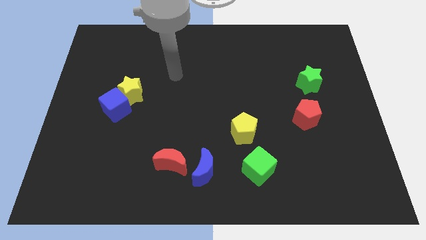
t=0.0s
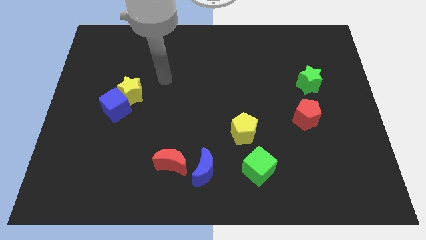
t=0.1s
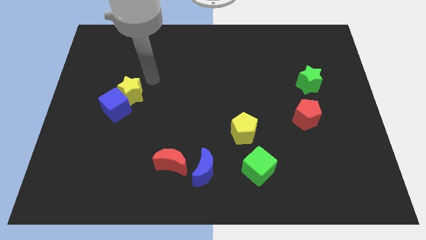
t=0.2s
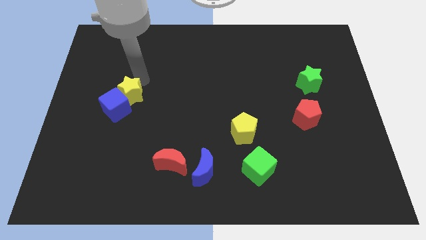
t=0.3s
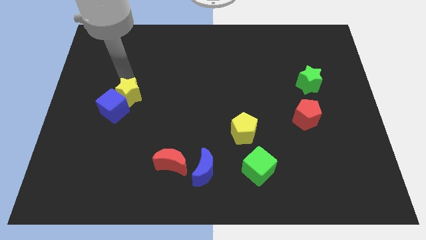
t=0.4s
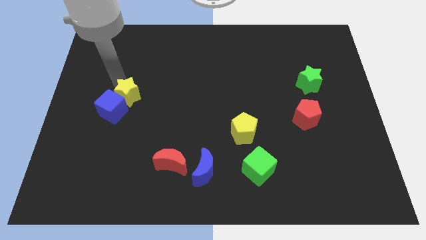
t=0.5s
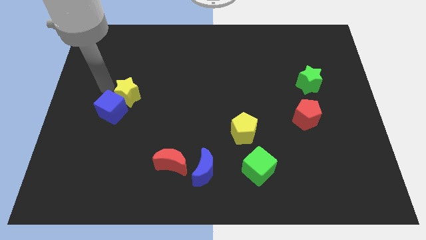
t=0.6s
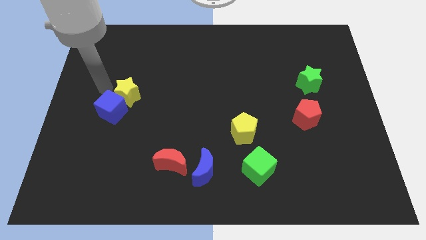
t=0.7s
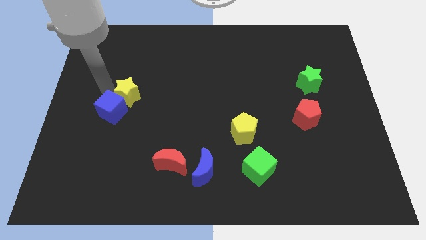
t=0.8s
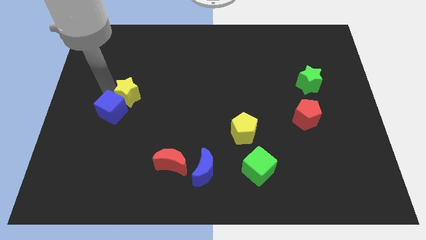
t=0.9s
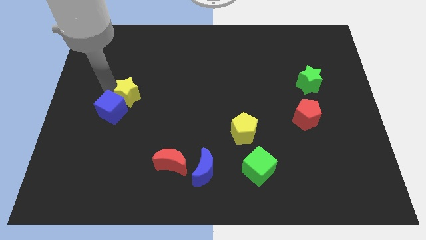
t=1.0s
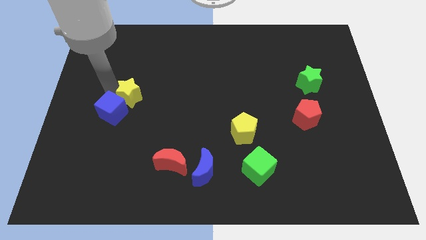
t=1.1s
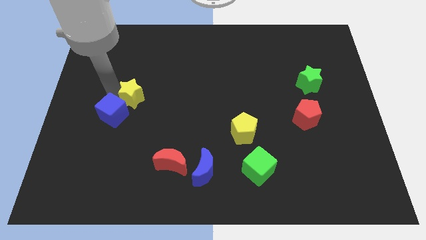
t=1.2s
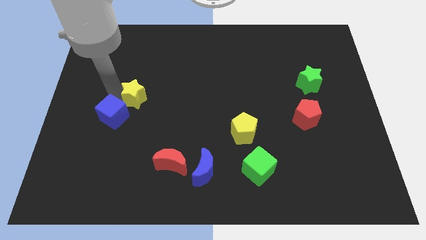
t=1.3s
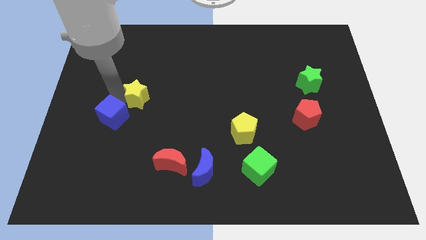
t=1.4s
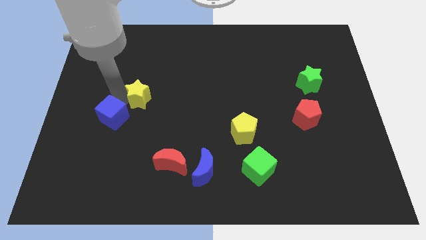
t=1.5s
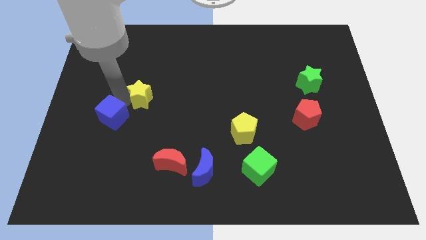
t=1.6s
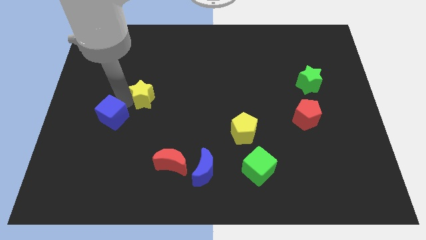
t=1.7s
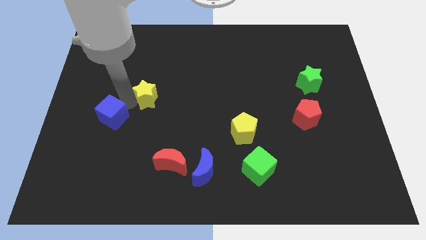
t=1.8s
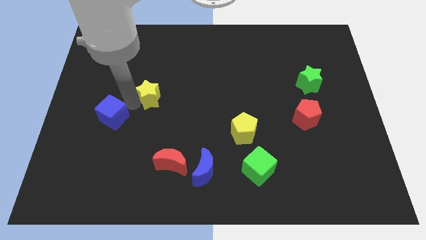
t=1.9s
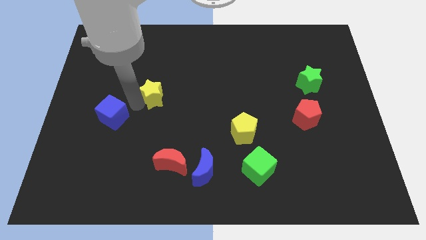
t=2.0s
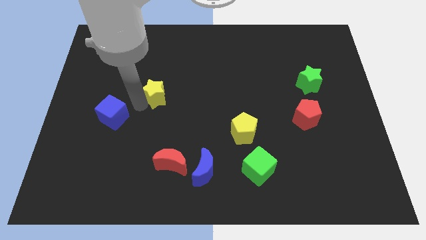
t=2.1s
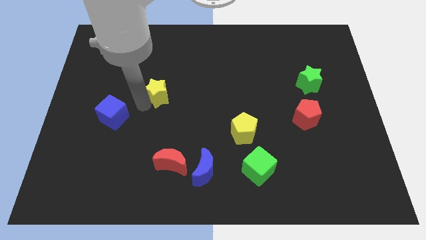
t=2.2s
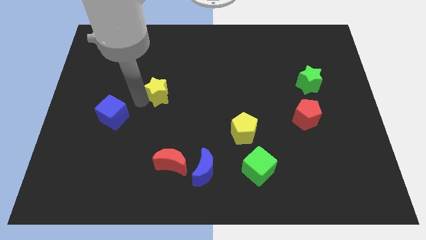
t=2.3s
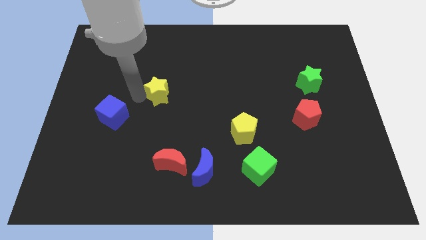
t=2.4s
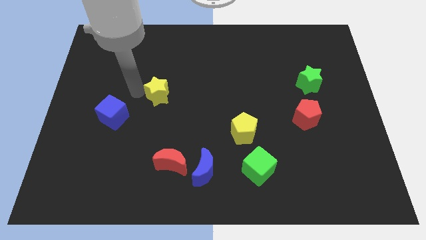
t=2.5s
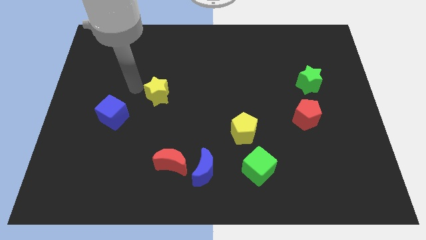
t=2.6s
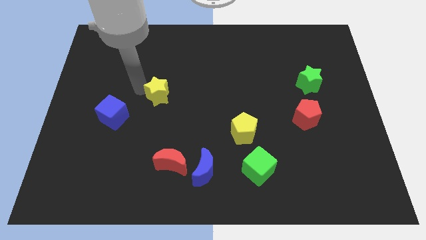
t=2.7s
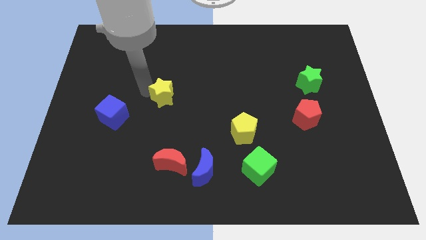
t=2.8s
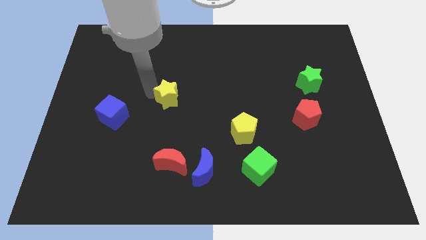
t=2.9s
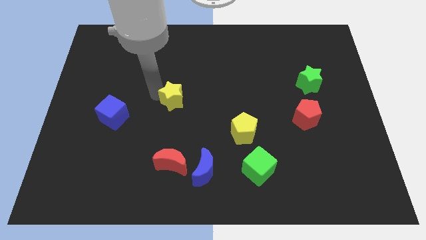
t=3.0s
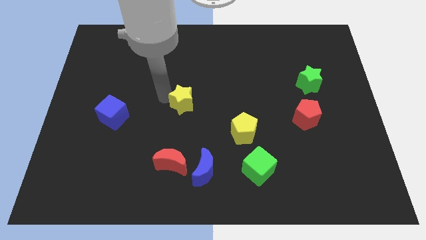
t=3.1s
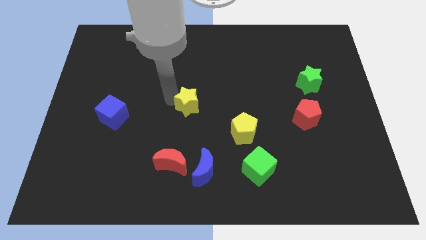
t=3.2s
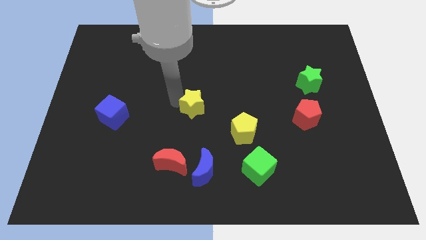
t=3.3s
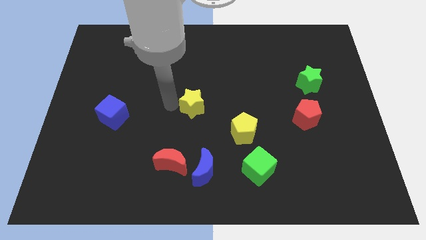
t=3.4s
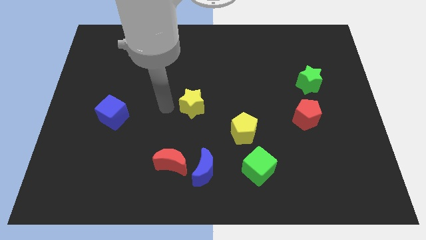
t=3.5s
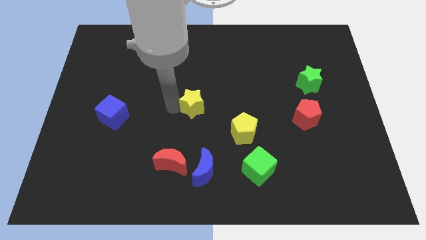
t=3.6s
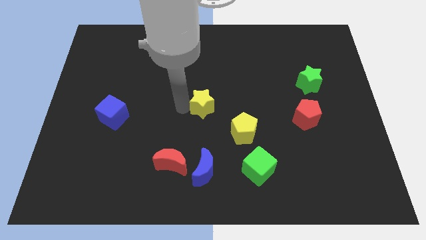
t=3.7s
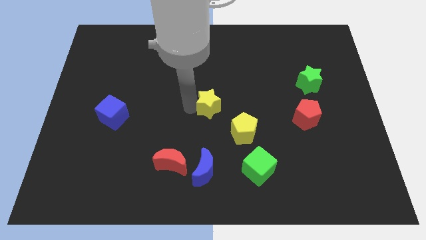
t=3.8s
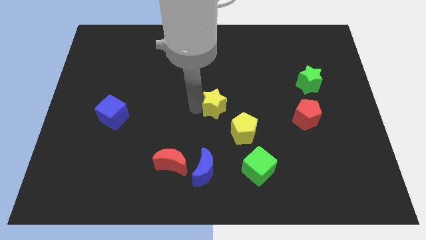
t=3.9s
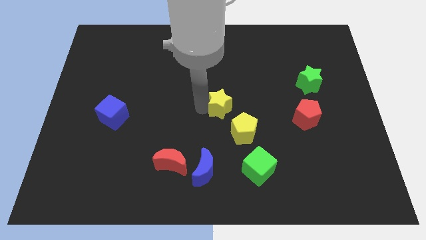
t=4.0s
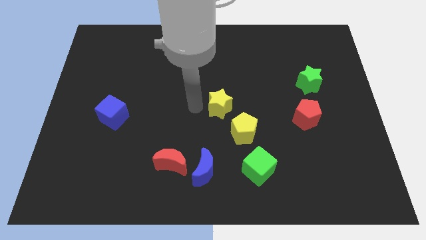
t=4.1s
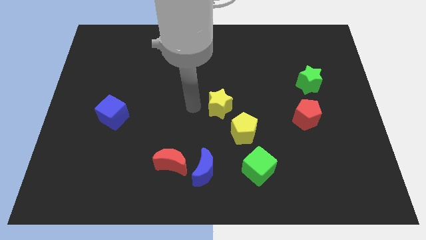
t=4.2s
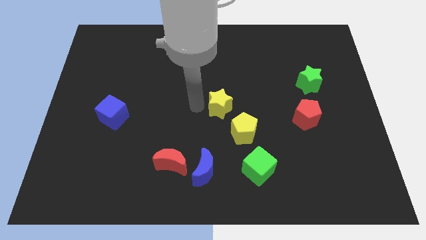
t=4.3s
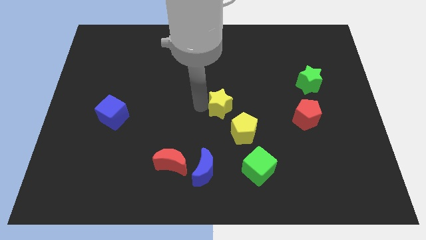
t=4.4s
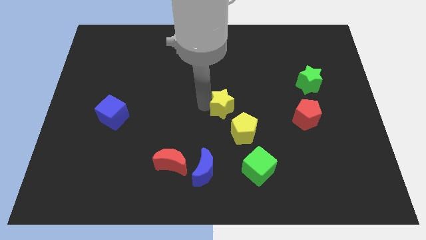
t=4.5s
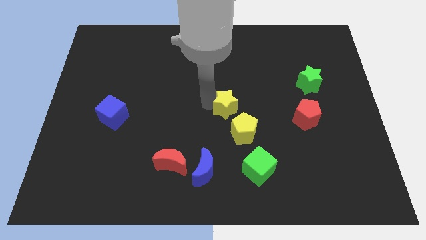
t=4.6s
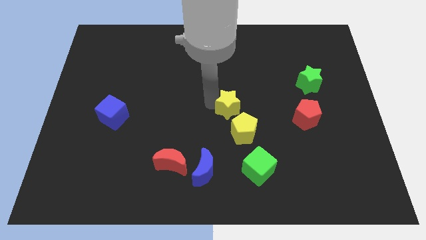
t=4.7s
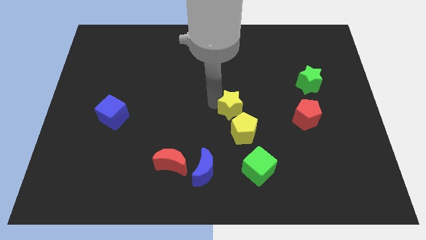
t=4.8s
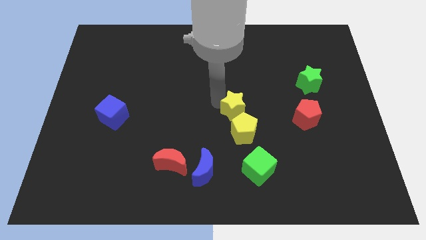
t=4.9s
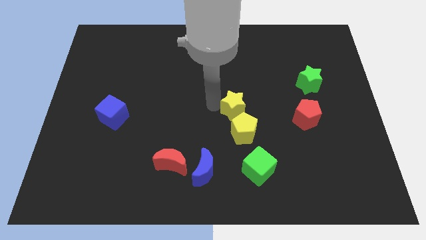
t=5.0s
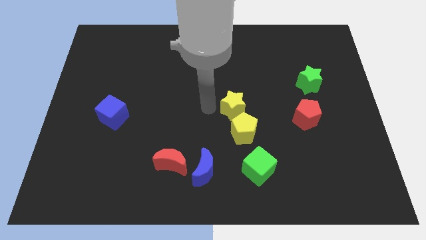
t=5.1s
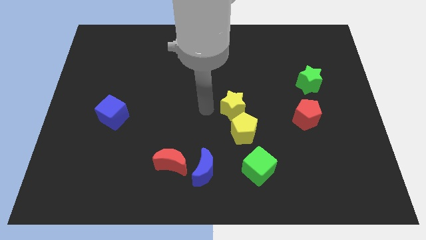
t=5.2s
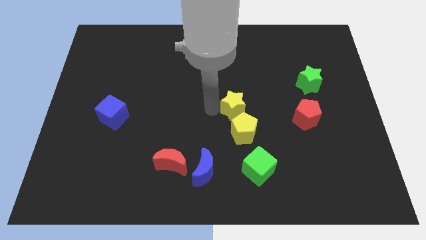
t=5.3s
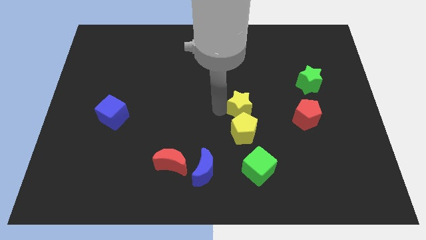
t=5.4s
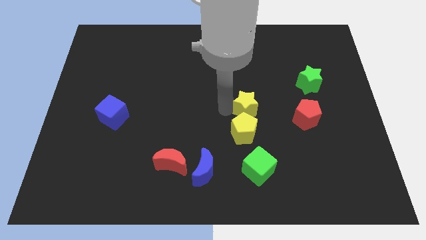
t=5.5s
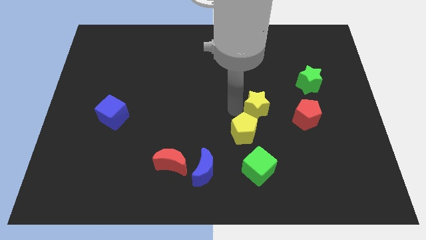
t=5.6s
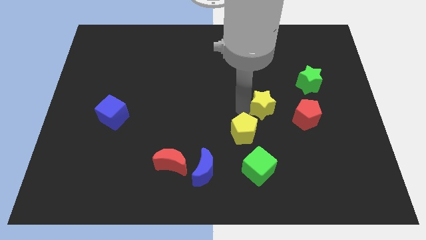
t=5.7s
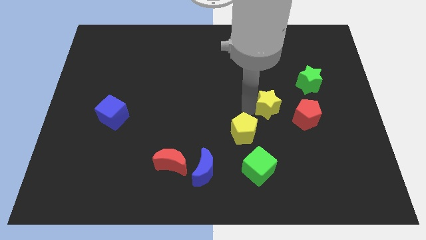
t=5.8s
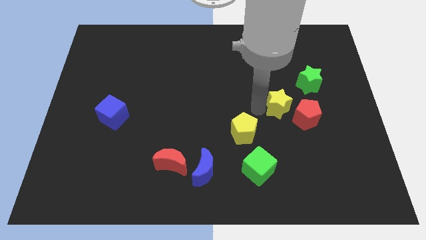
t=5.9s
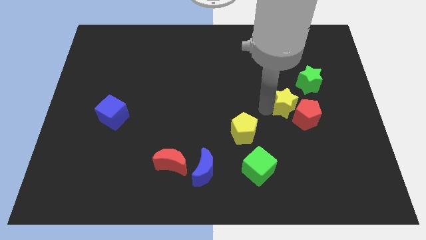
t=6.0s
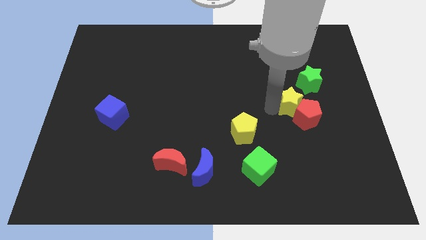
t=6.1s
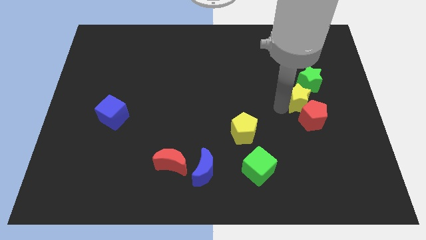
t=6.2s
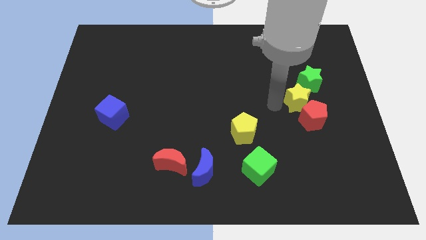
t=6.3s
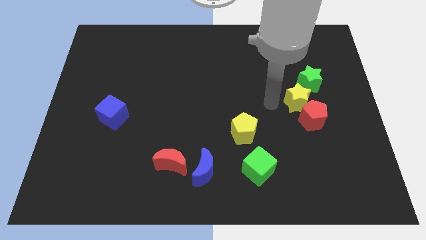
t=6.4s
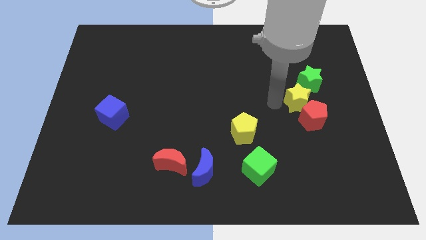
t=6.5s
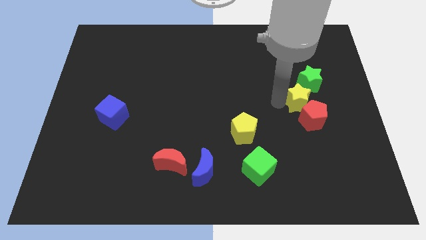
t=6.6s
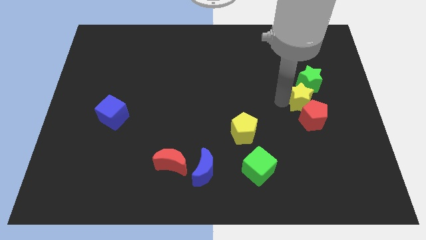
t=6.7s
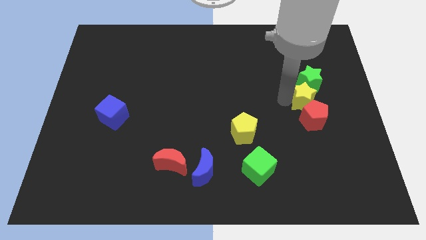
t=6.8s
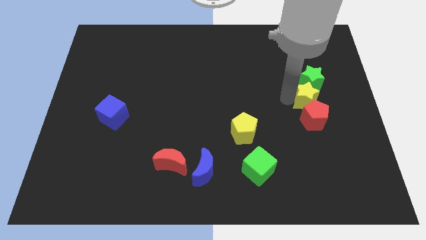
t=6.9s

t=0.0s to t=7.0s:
push the yellow star diagonally up and to the right of the red pentagon

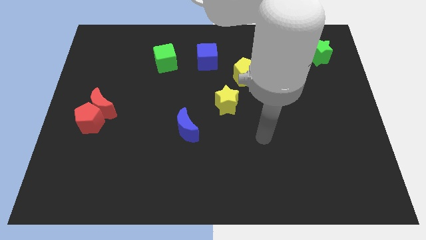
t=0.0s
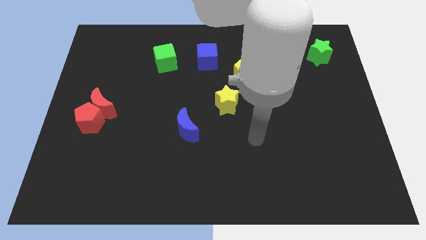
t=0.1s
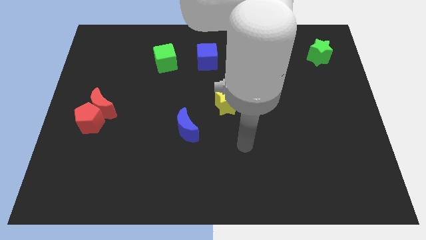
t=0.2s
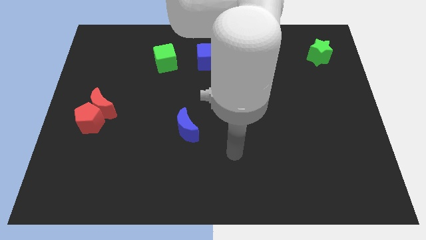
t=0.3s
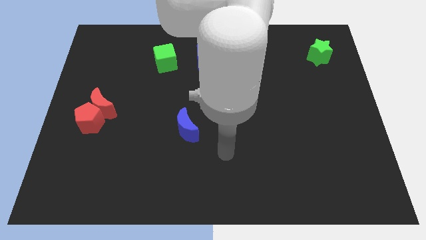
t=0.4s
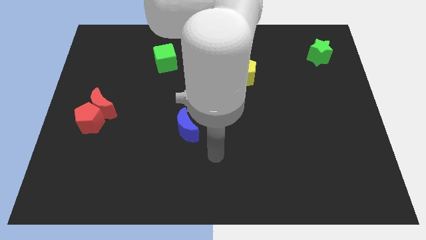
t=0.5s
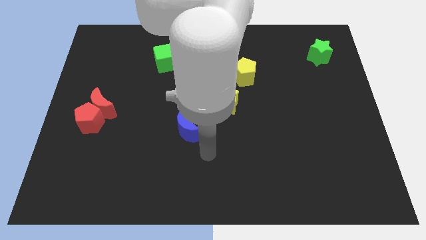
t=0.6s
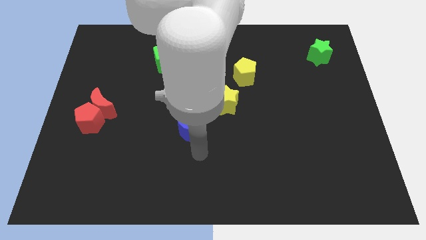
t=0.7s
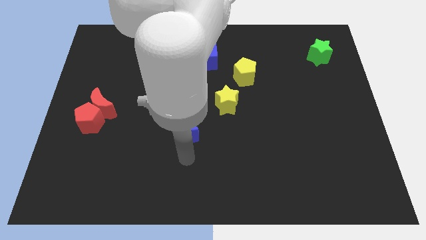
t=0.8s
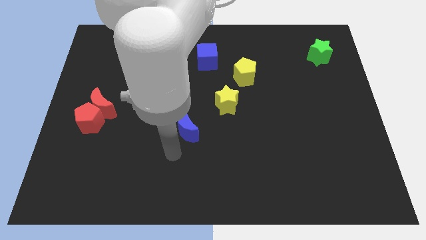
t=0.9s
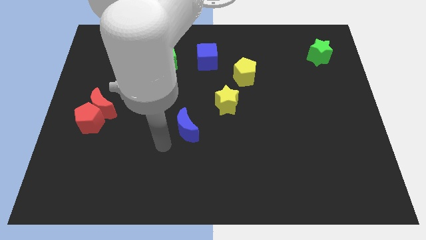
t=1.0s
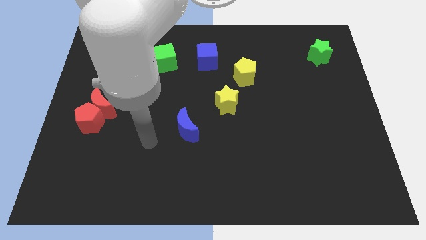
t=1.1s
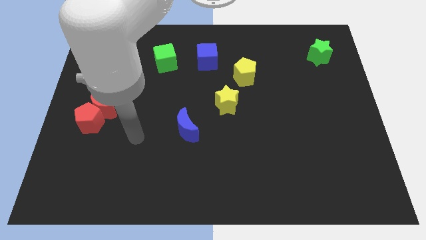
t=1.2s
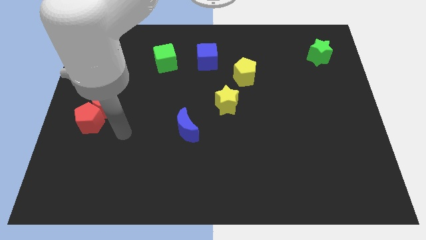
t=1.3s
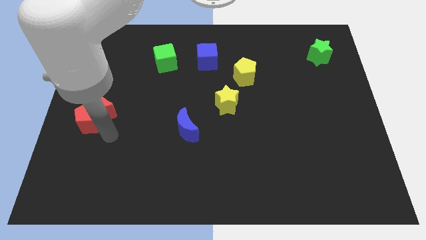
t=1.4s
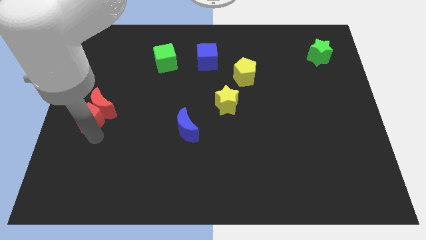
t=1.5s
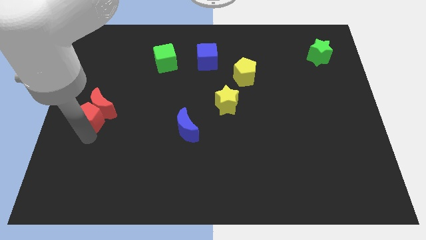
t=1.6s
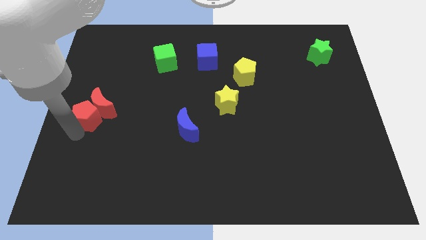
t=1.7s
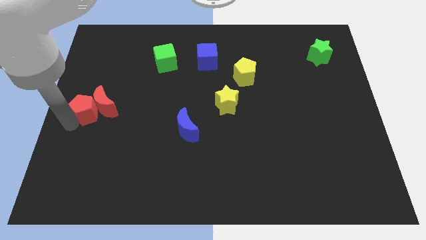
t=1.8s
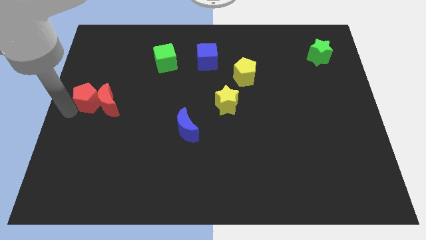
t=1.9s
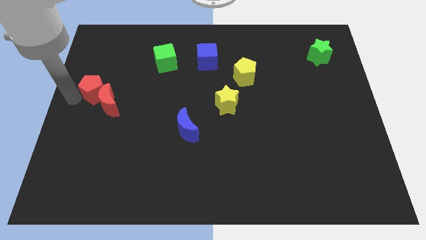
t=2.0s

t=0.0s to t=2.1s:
slide the red pentagon to the top of the red moon
